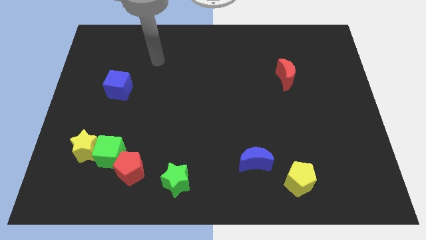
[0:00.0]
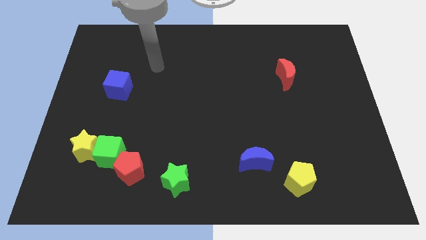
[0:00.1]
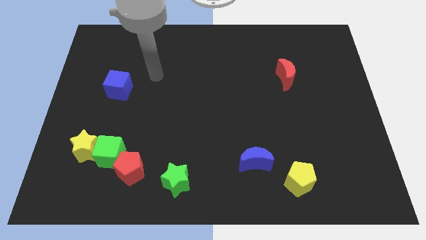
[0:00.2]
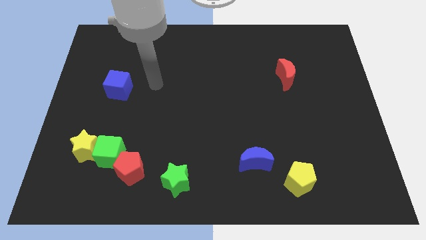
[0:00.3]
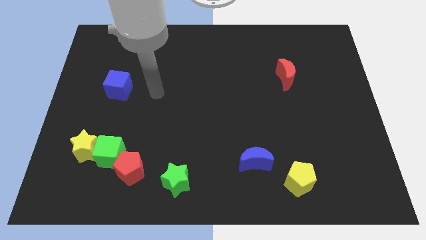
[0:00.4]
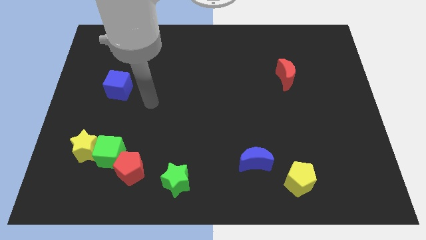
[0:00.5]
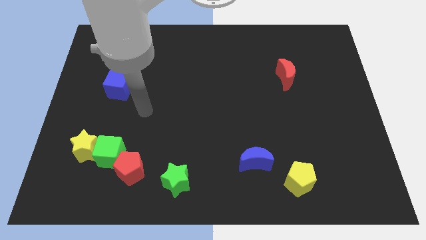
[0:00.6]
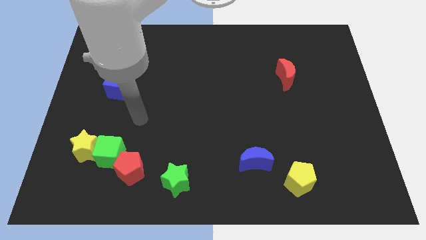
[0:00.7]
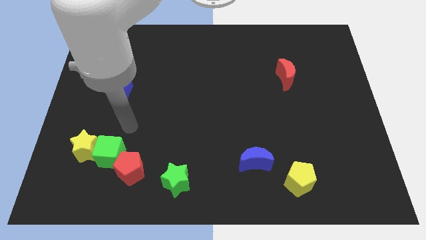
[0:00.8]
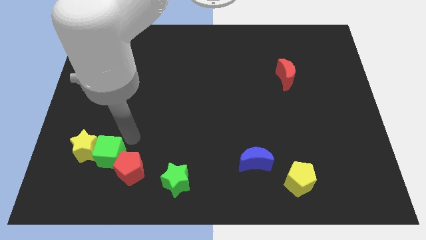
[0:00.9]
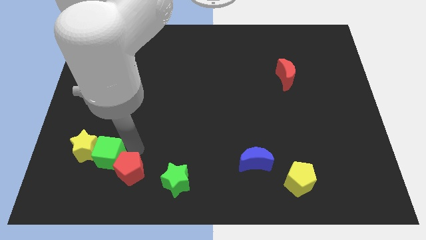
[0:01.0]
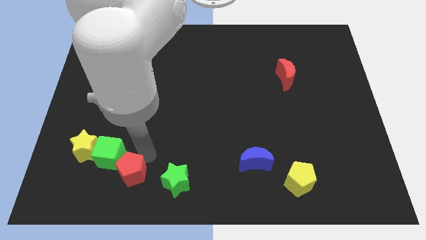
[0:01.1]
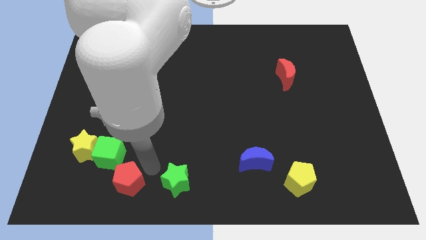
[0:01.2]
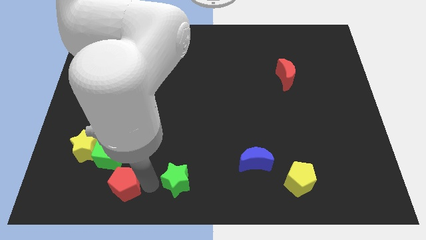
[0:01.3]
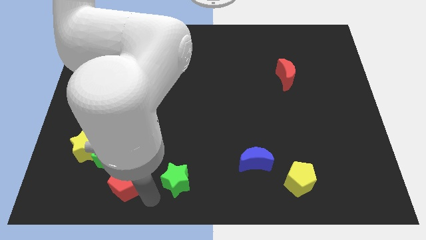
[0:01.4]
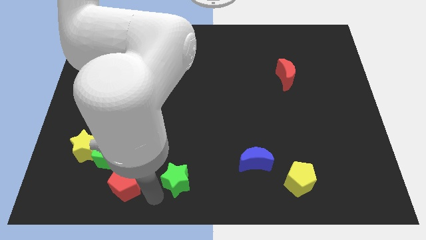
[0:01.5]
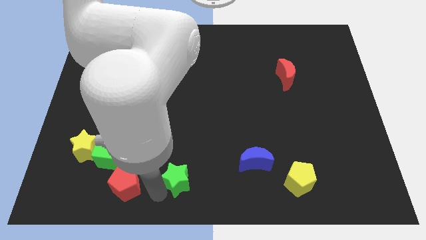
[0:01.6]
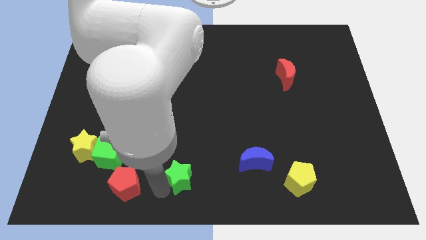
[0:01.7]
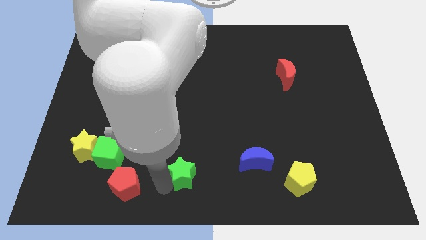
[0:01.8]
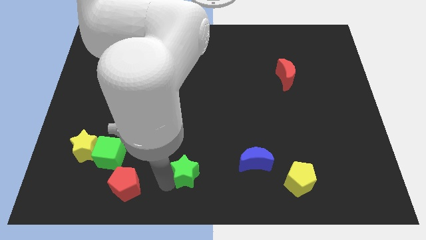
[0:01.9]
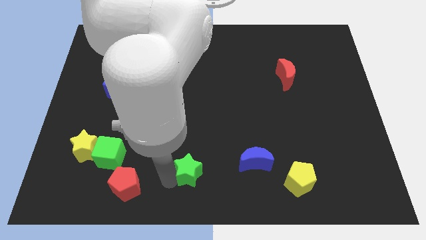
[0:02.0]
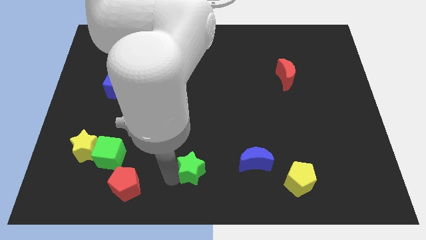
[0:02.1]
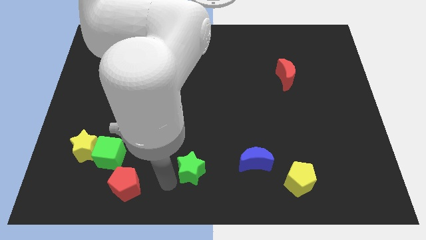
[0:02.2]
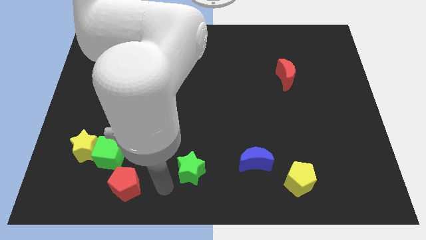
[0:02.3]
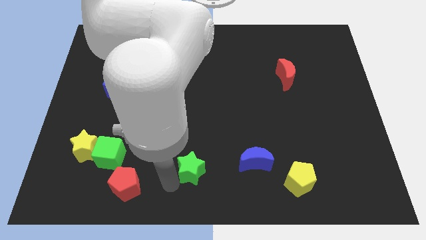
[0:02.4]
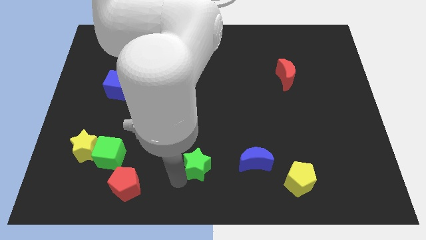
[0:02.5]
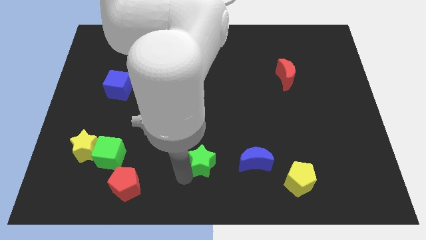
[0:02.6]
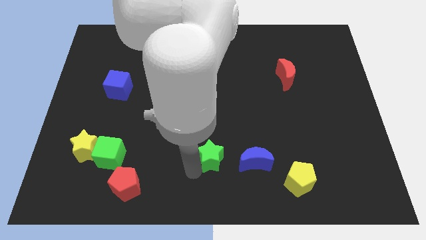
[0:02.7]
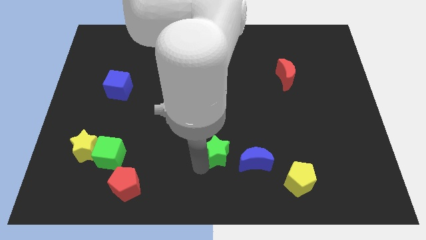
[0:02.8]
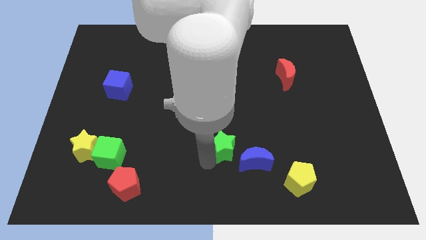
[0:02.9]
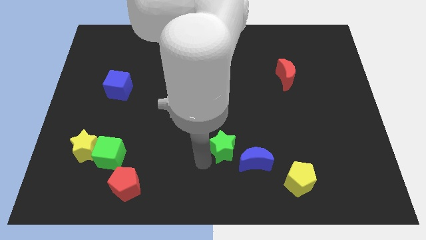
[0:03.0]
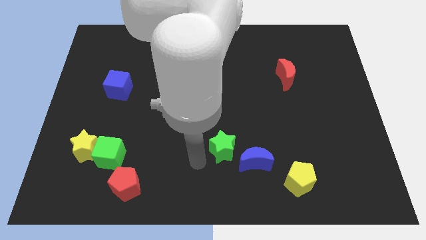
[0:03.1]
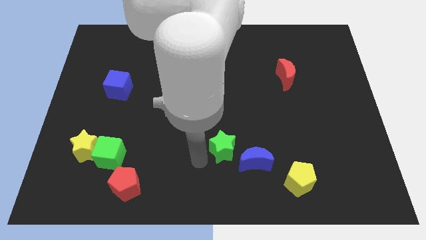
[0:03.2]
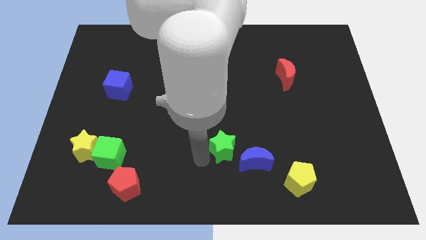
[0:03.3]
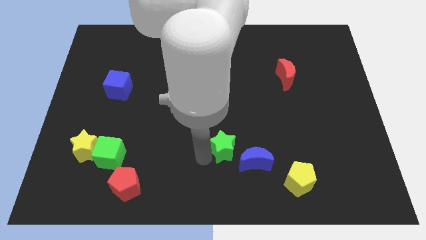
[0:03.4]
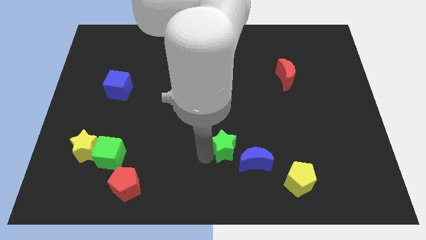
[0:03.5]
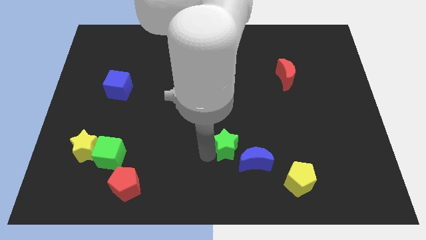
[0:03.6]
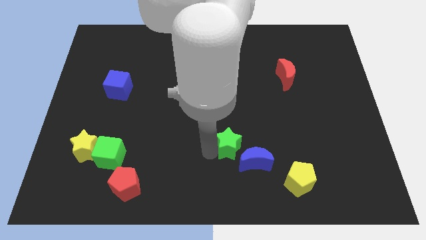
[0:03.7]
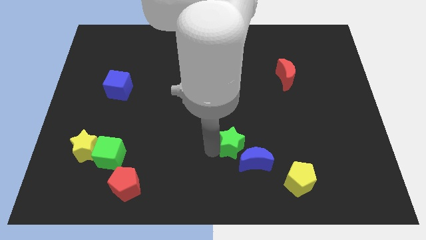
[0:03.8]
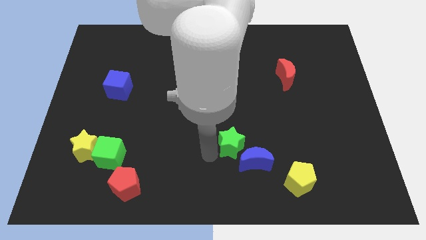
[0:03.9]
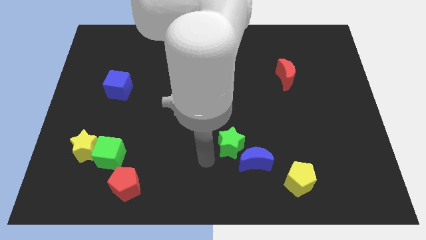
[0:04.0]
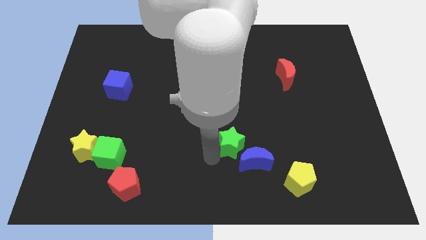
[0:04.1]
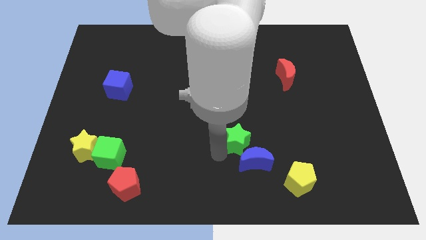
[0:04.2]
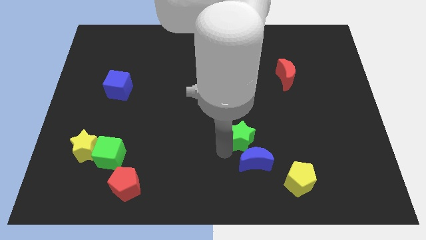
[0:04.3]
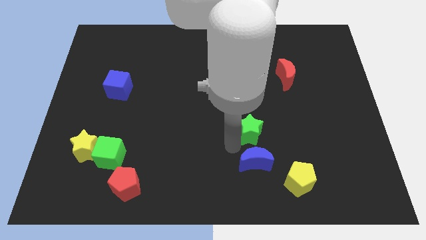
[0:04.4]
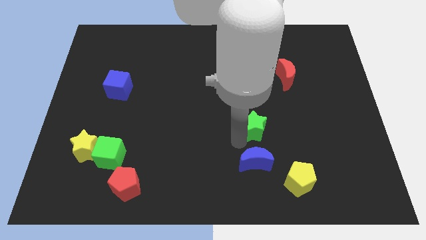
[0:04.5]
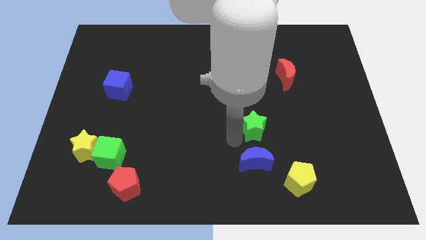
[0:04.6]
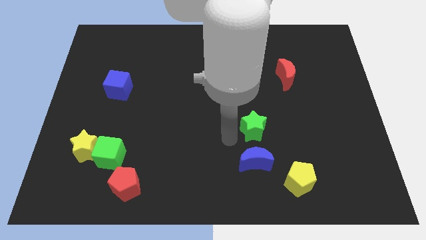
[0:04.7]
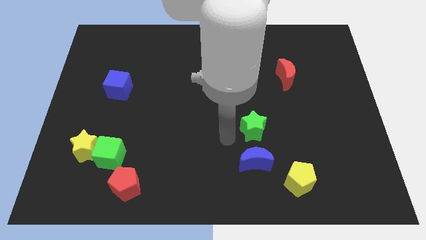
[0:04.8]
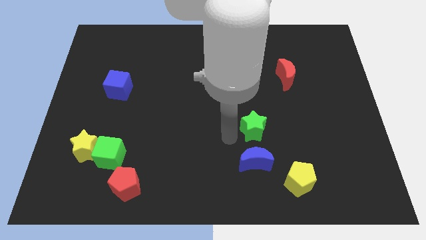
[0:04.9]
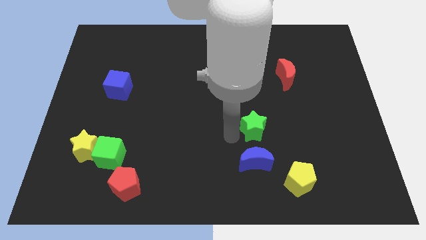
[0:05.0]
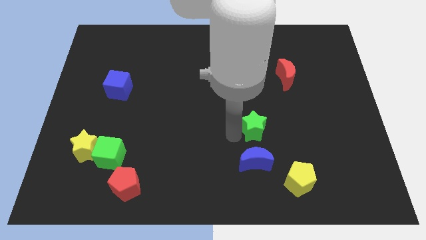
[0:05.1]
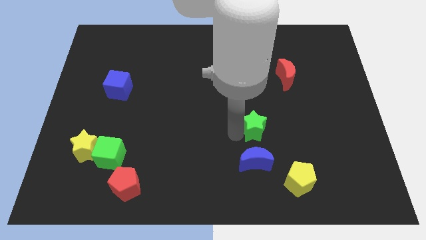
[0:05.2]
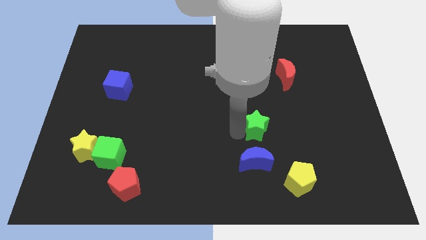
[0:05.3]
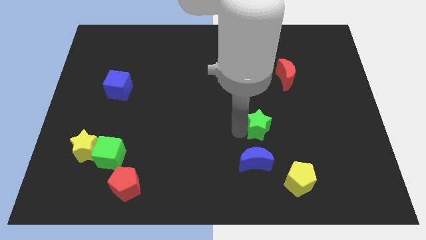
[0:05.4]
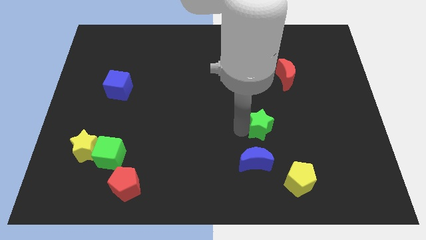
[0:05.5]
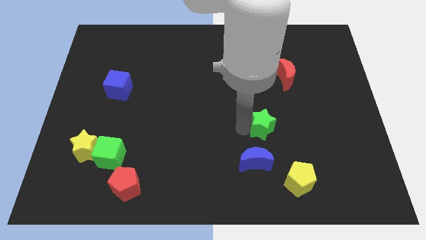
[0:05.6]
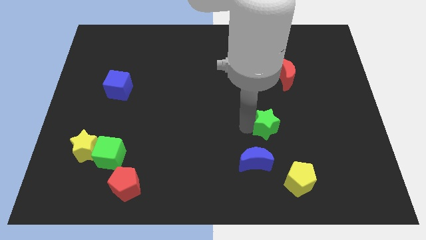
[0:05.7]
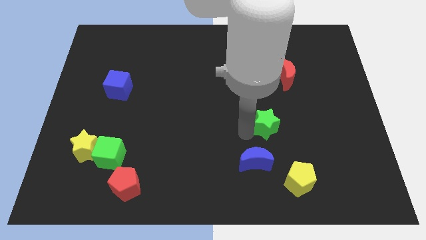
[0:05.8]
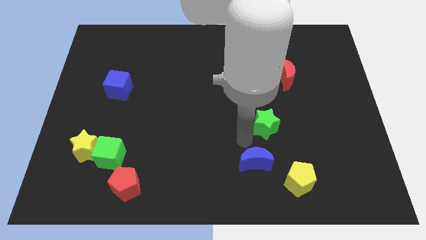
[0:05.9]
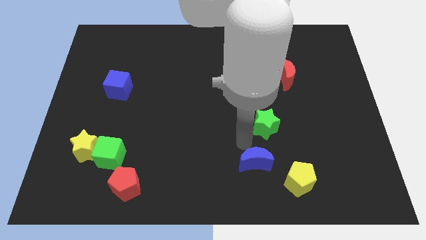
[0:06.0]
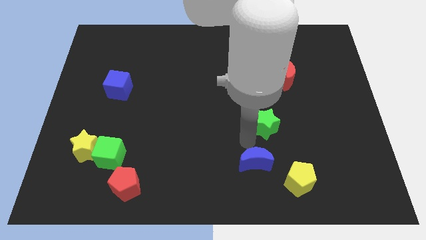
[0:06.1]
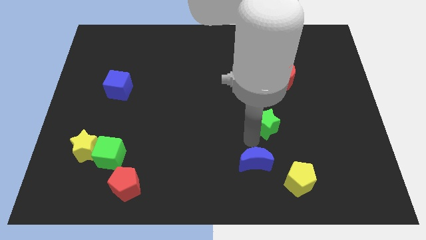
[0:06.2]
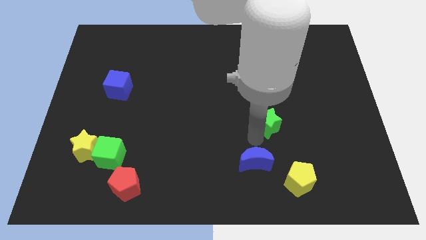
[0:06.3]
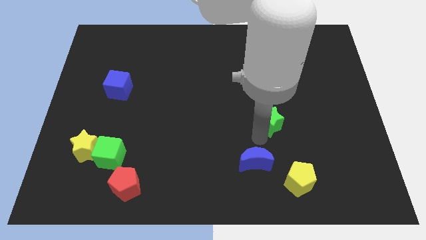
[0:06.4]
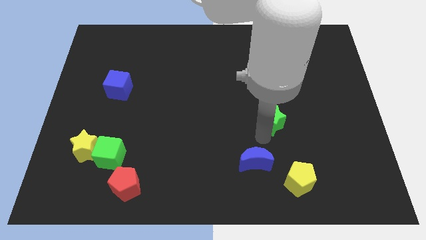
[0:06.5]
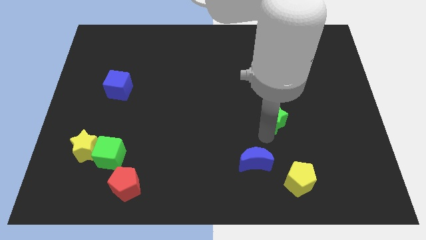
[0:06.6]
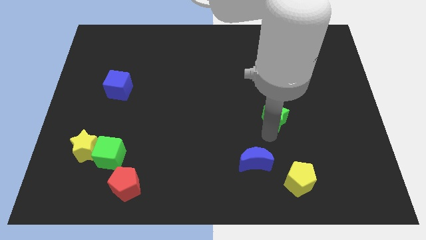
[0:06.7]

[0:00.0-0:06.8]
move the green star to the bottom of the red moon
